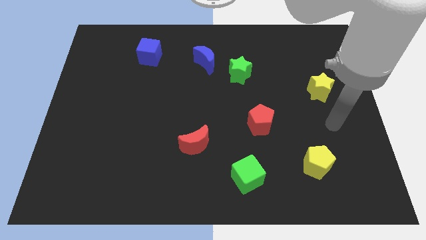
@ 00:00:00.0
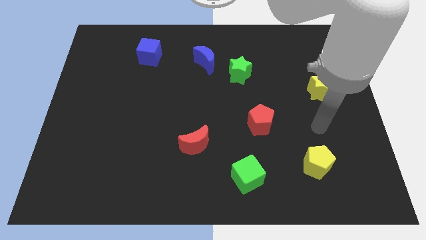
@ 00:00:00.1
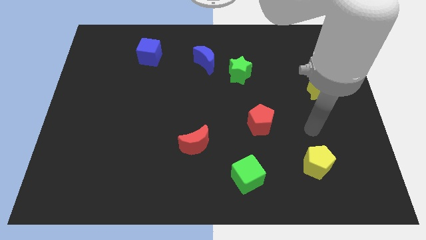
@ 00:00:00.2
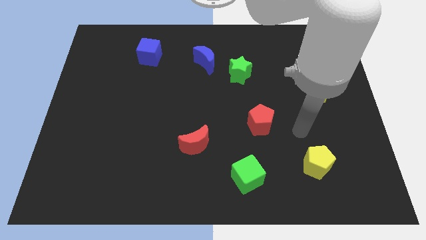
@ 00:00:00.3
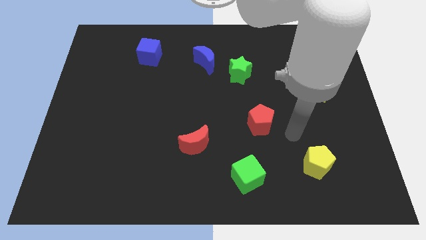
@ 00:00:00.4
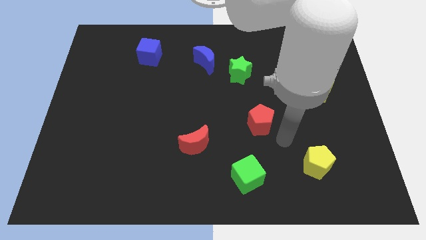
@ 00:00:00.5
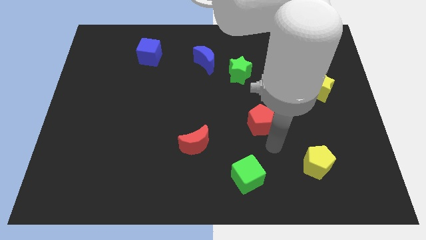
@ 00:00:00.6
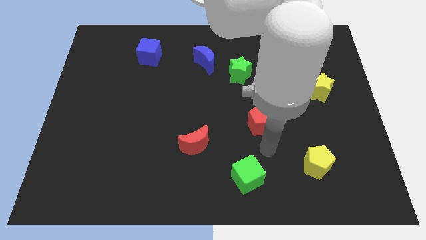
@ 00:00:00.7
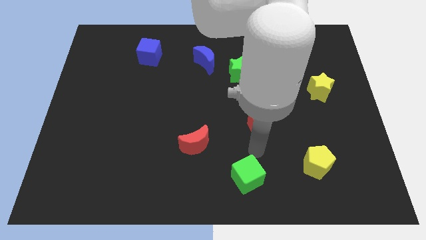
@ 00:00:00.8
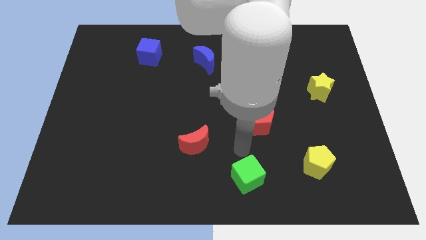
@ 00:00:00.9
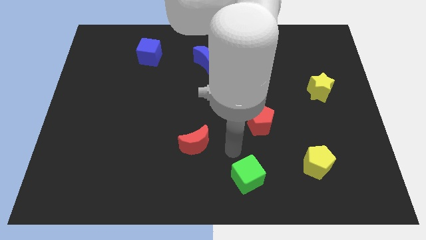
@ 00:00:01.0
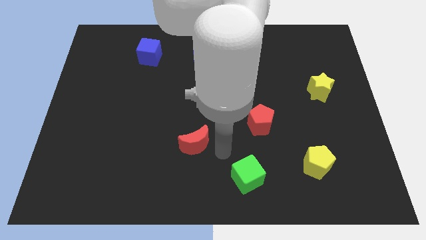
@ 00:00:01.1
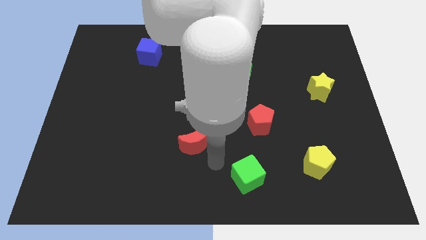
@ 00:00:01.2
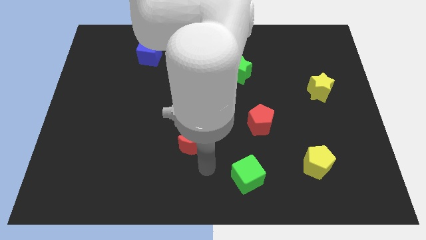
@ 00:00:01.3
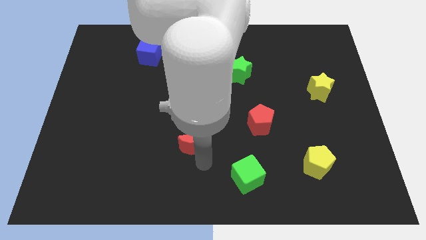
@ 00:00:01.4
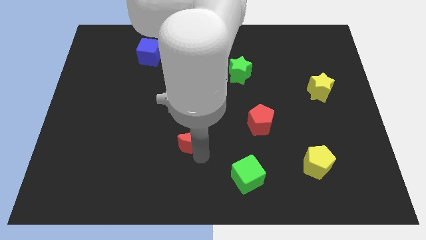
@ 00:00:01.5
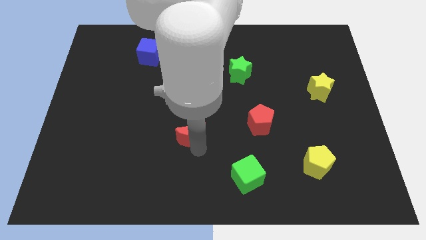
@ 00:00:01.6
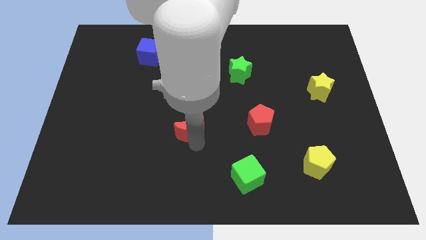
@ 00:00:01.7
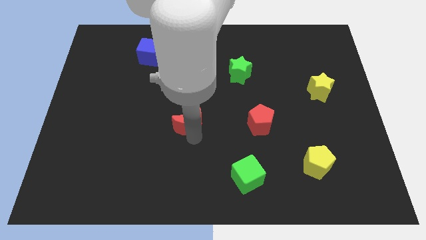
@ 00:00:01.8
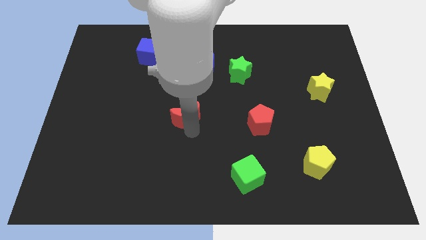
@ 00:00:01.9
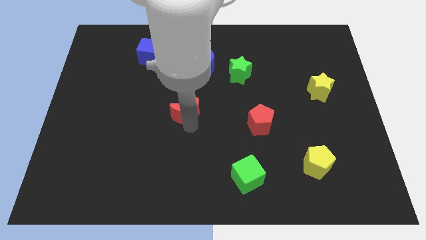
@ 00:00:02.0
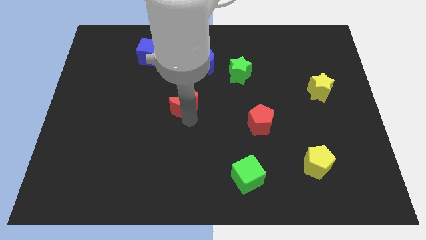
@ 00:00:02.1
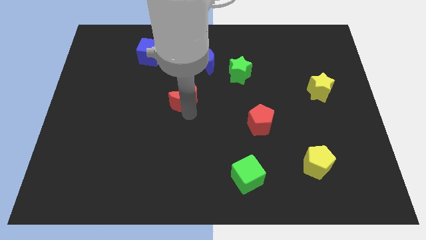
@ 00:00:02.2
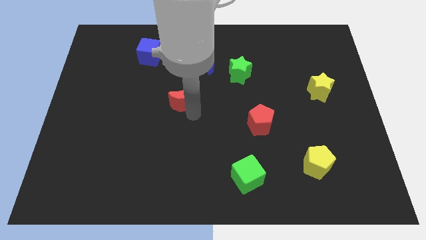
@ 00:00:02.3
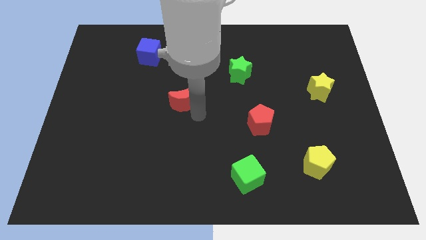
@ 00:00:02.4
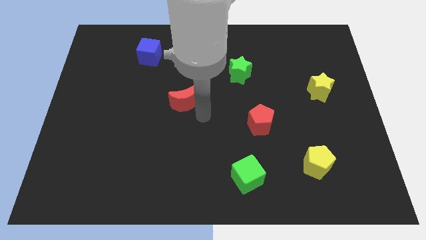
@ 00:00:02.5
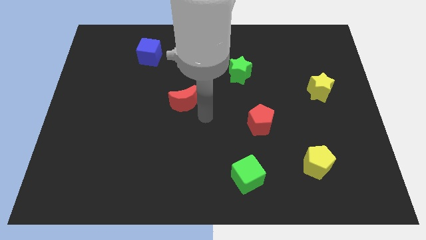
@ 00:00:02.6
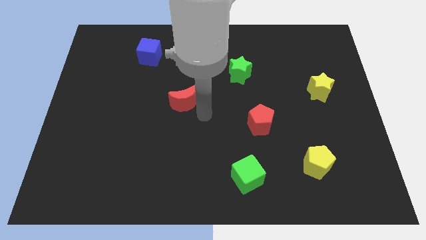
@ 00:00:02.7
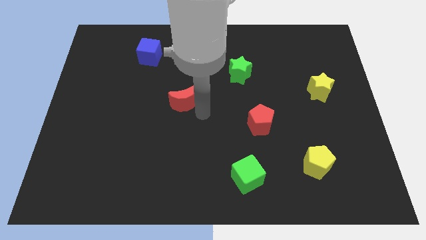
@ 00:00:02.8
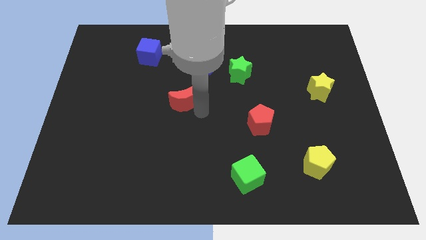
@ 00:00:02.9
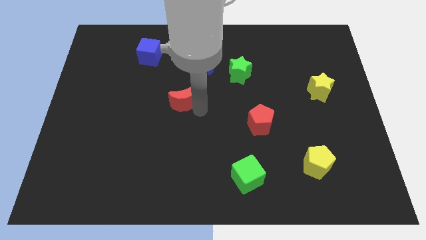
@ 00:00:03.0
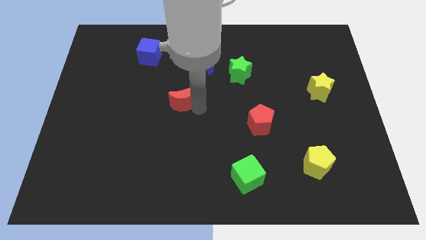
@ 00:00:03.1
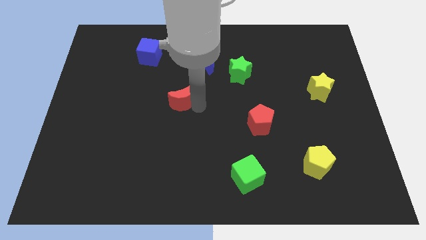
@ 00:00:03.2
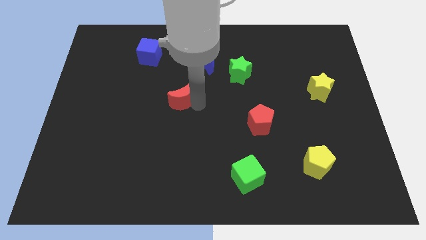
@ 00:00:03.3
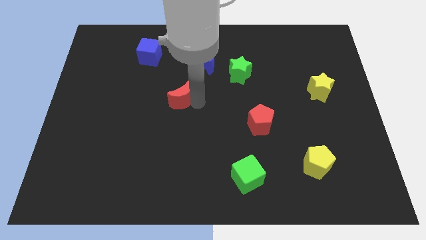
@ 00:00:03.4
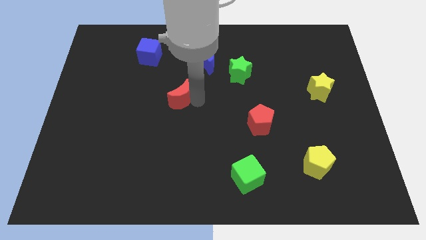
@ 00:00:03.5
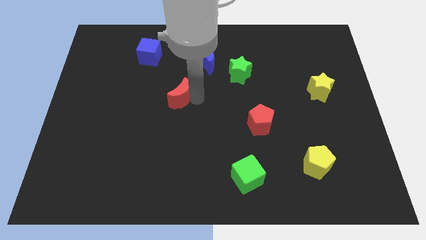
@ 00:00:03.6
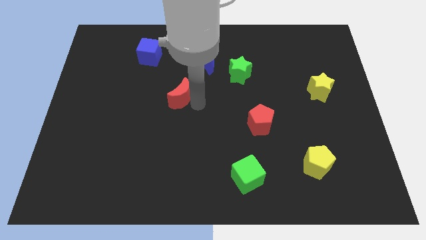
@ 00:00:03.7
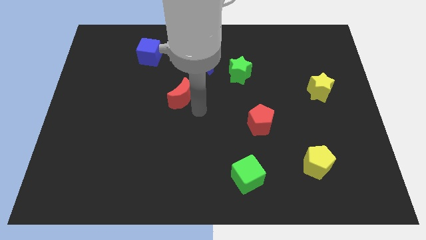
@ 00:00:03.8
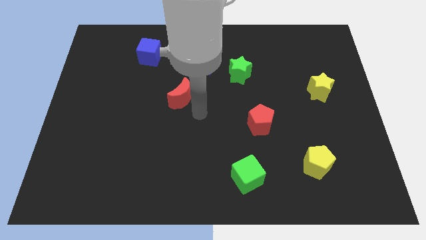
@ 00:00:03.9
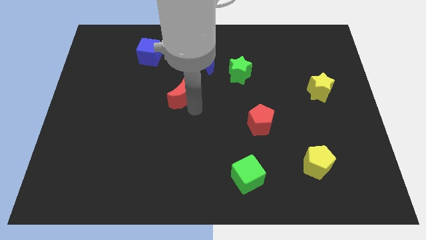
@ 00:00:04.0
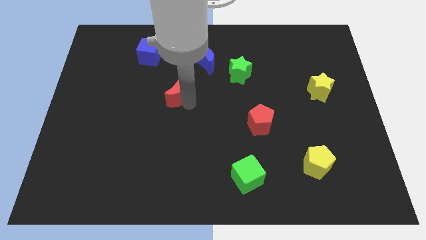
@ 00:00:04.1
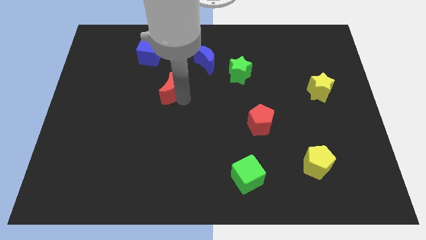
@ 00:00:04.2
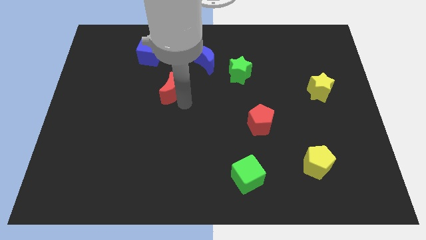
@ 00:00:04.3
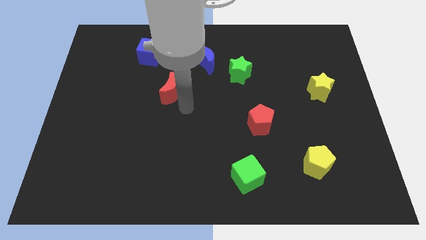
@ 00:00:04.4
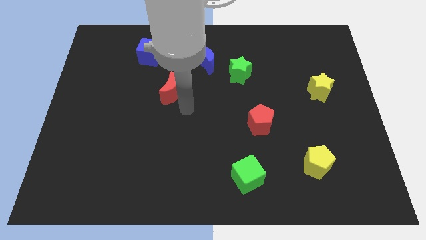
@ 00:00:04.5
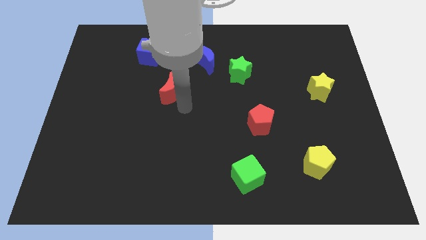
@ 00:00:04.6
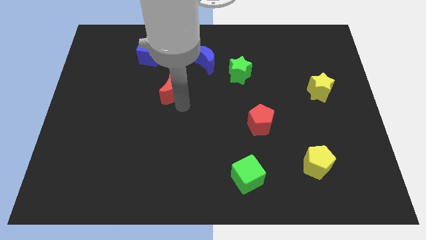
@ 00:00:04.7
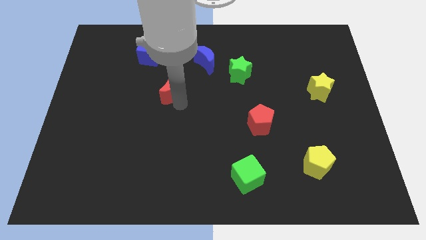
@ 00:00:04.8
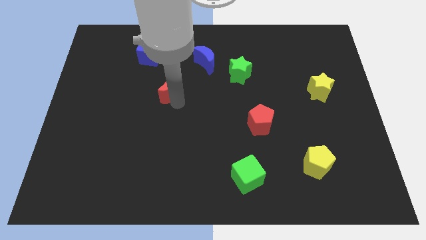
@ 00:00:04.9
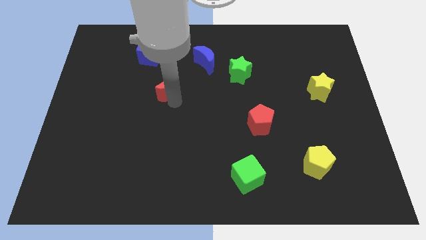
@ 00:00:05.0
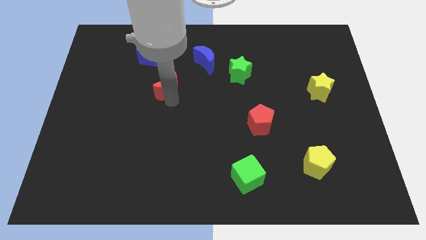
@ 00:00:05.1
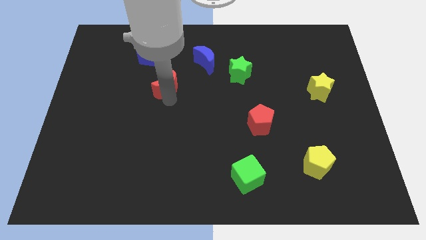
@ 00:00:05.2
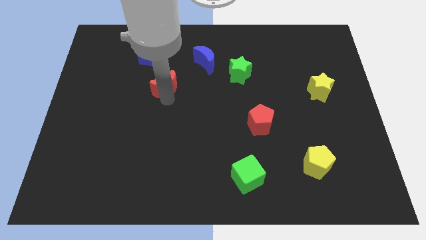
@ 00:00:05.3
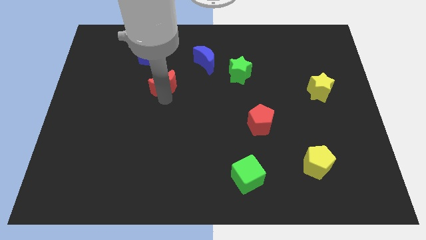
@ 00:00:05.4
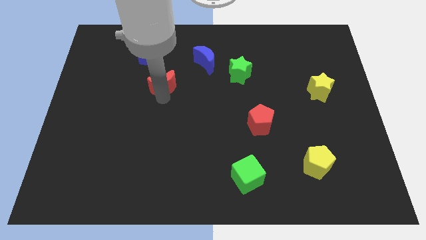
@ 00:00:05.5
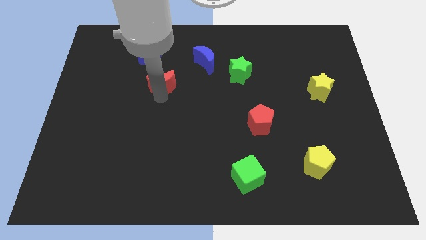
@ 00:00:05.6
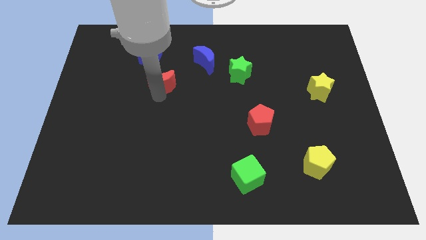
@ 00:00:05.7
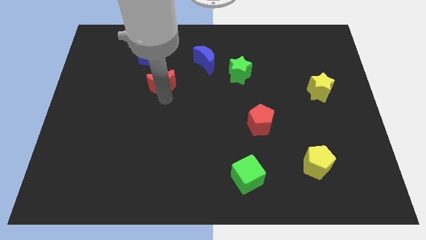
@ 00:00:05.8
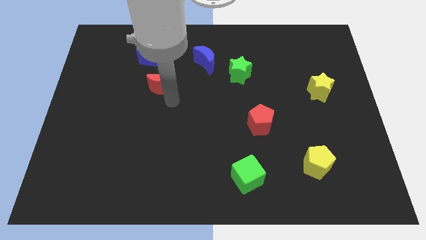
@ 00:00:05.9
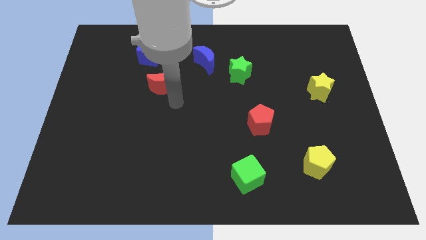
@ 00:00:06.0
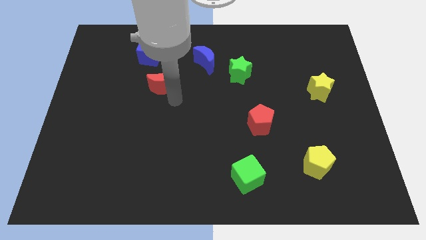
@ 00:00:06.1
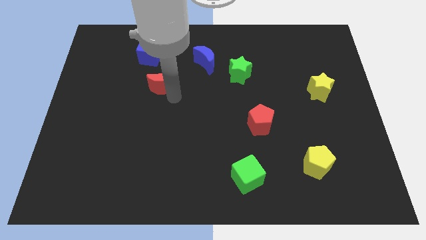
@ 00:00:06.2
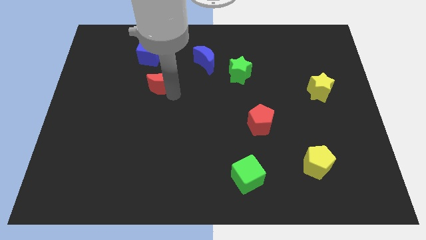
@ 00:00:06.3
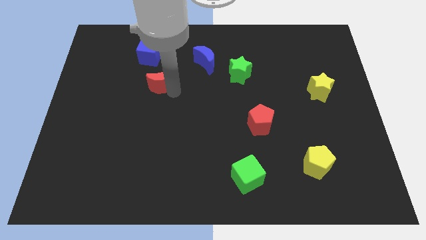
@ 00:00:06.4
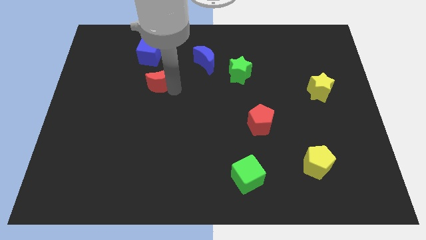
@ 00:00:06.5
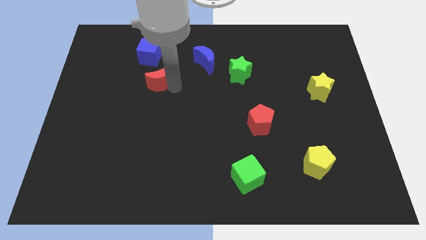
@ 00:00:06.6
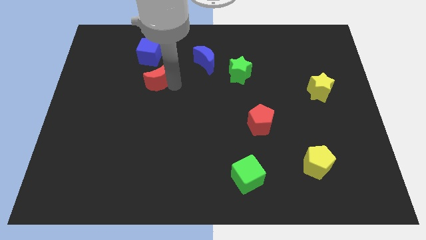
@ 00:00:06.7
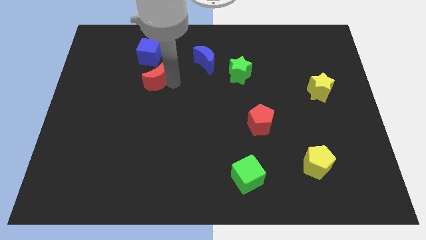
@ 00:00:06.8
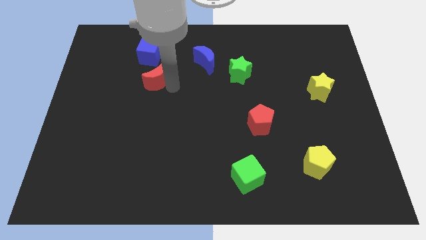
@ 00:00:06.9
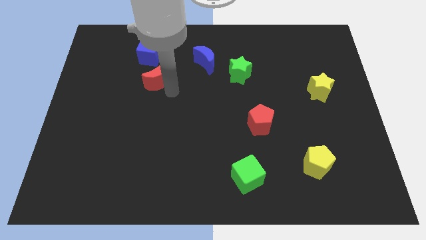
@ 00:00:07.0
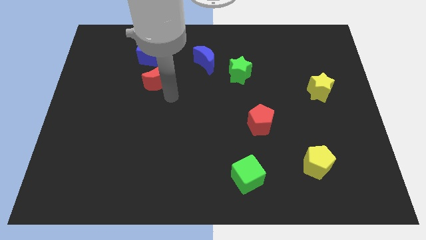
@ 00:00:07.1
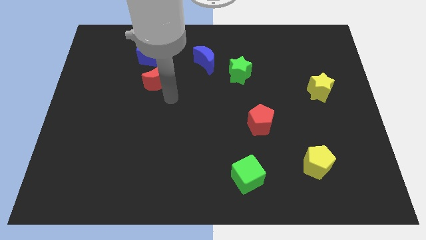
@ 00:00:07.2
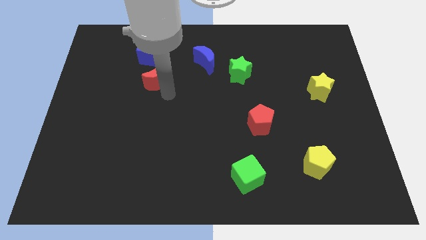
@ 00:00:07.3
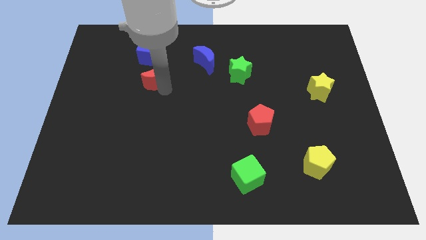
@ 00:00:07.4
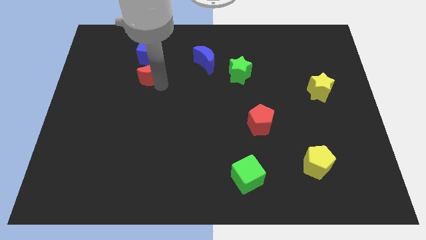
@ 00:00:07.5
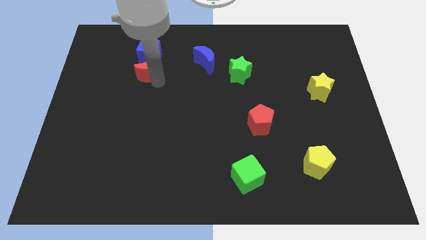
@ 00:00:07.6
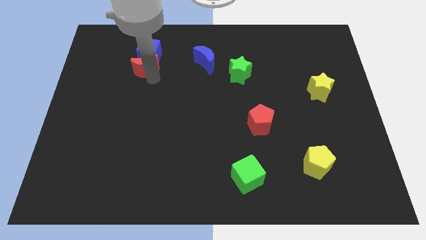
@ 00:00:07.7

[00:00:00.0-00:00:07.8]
move the red moon to the blue cube
